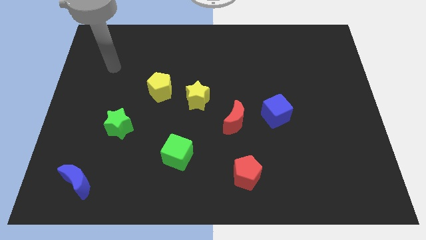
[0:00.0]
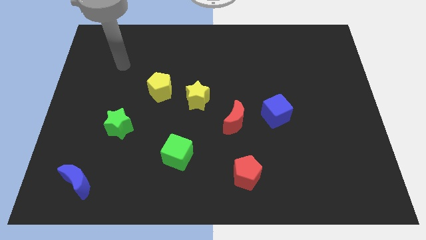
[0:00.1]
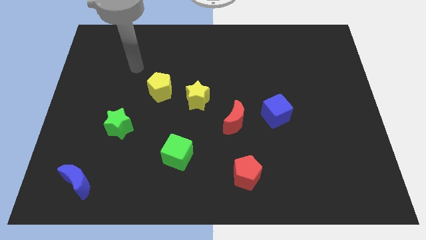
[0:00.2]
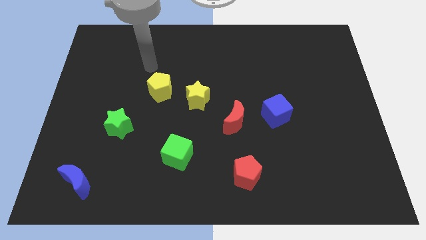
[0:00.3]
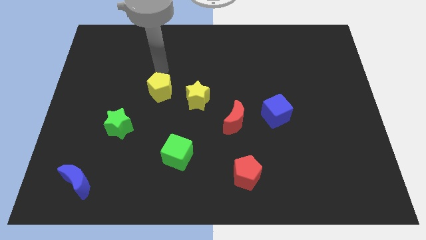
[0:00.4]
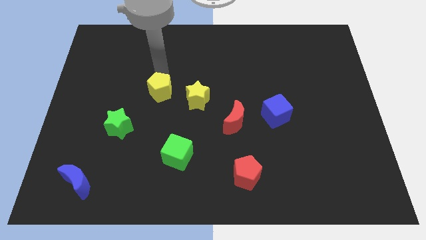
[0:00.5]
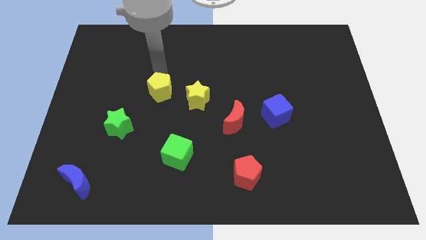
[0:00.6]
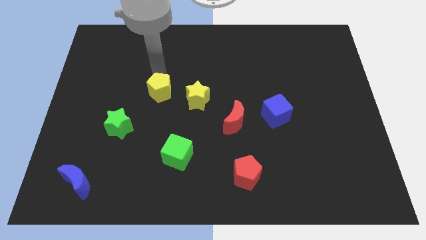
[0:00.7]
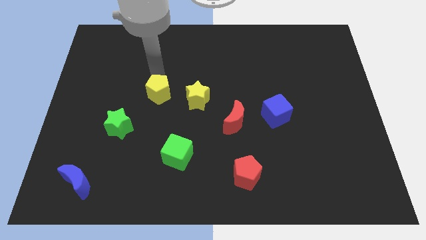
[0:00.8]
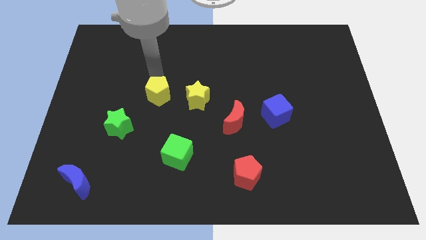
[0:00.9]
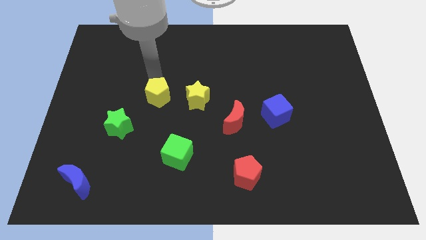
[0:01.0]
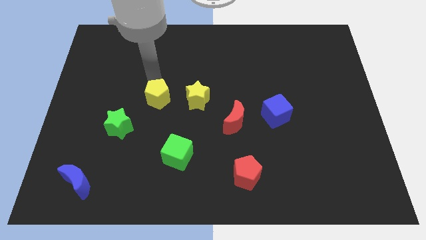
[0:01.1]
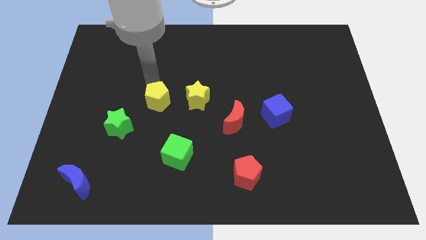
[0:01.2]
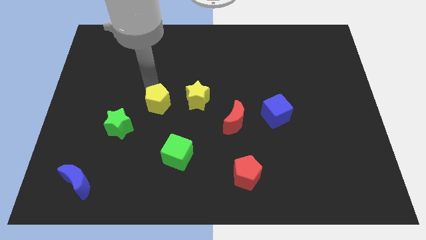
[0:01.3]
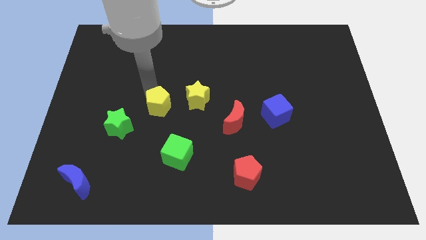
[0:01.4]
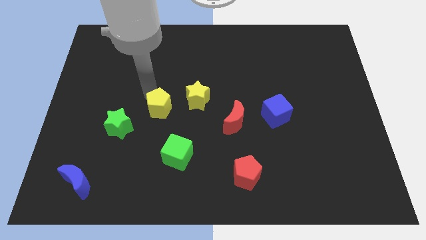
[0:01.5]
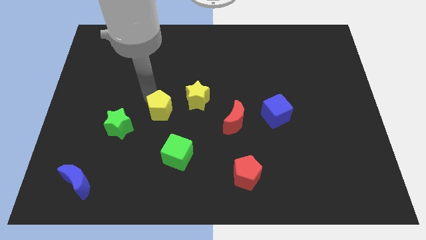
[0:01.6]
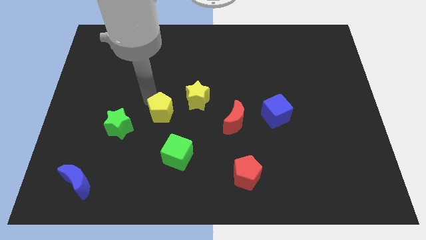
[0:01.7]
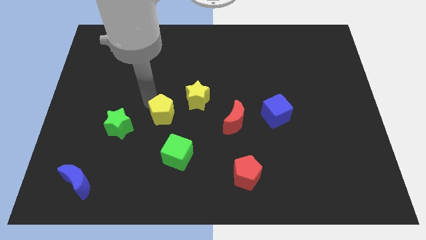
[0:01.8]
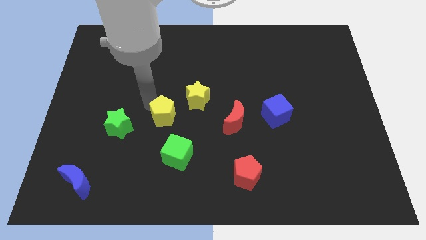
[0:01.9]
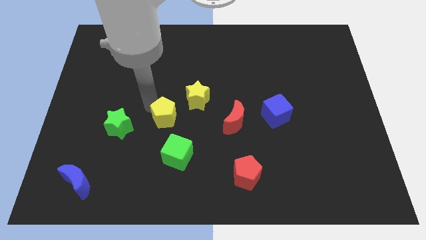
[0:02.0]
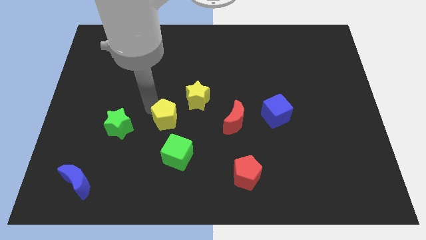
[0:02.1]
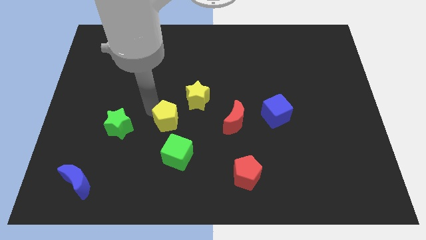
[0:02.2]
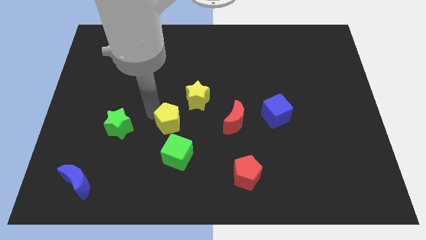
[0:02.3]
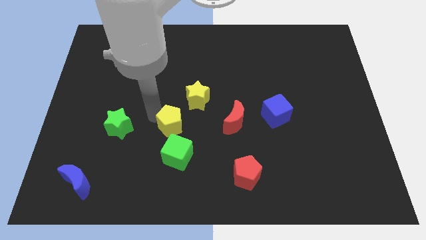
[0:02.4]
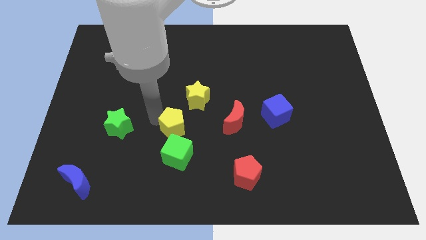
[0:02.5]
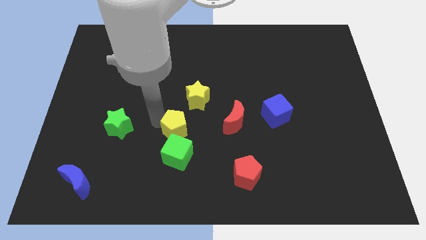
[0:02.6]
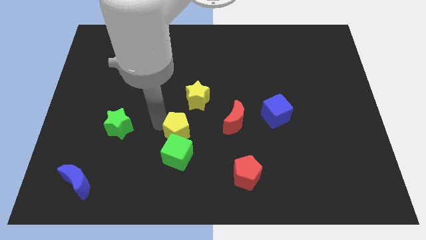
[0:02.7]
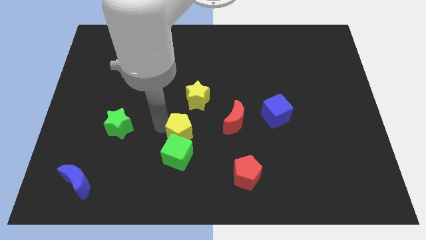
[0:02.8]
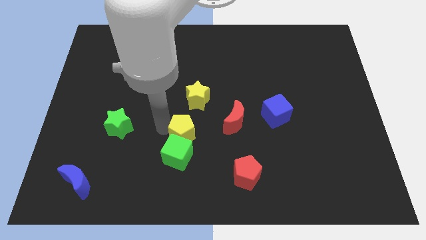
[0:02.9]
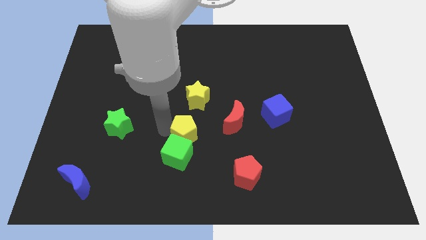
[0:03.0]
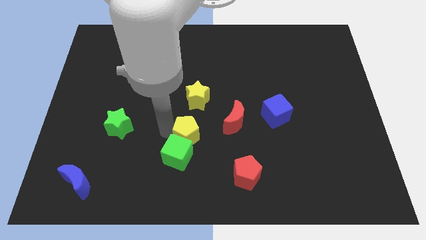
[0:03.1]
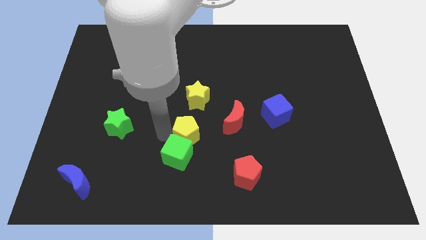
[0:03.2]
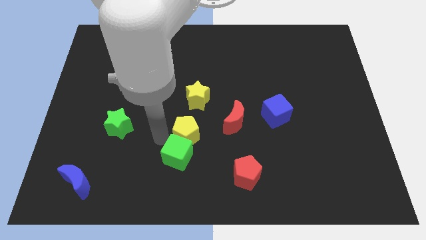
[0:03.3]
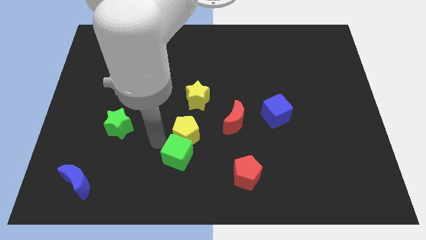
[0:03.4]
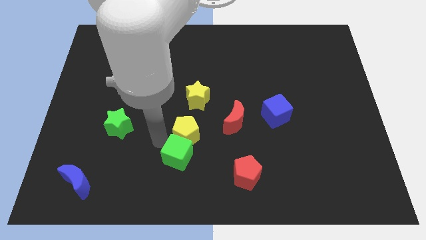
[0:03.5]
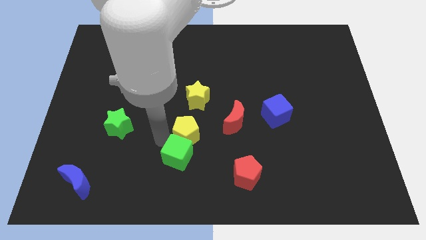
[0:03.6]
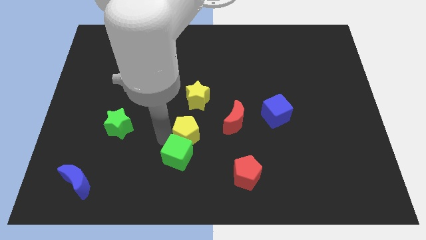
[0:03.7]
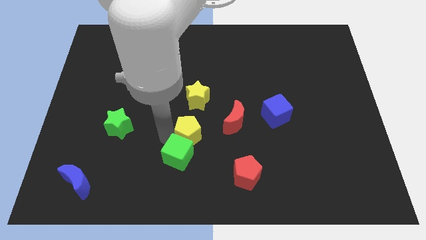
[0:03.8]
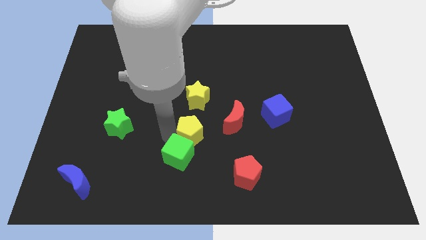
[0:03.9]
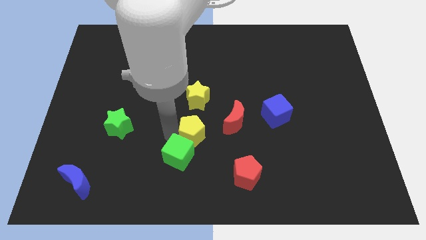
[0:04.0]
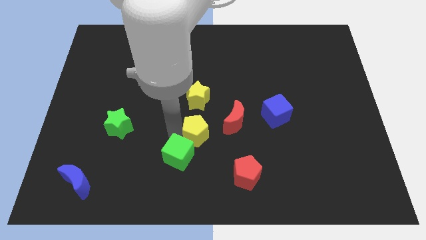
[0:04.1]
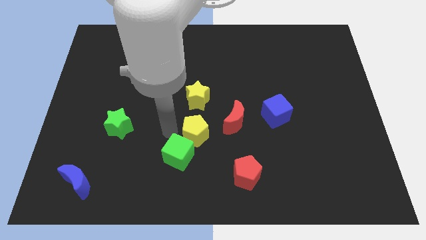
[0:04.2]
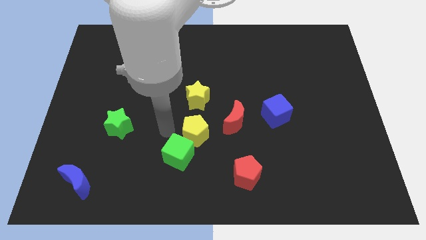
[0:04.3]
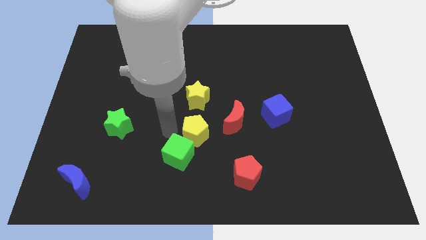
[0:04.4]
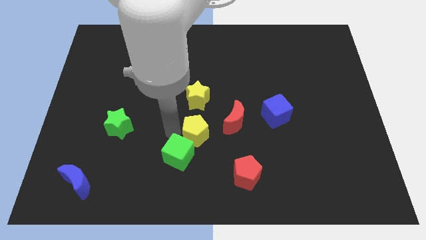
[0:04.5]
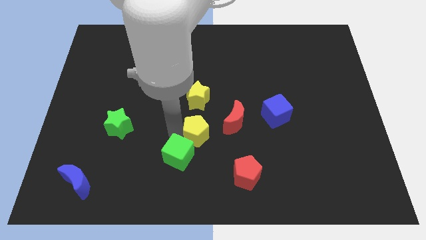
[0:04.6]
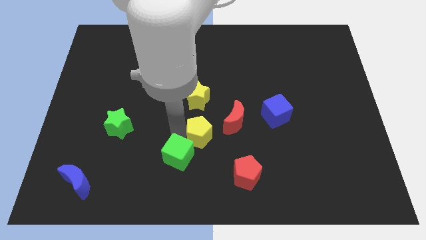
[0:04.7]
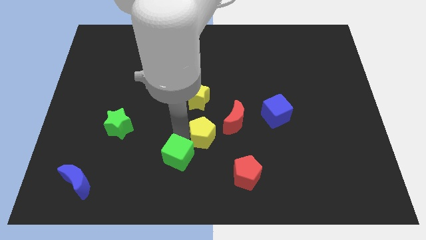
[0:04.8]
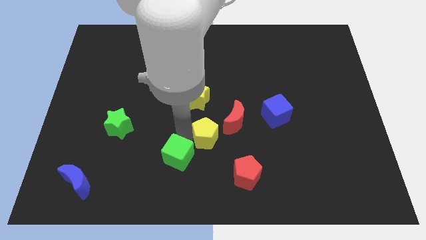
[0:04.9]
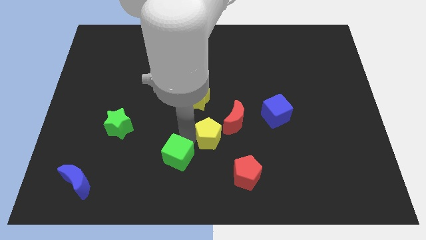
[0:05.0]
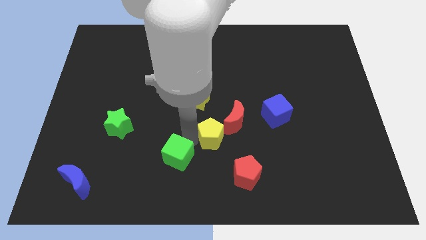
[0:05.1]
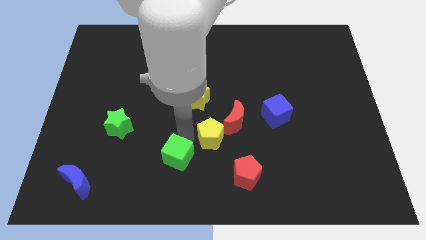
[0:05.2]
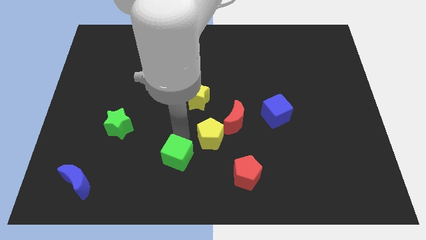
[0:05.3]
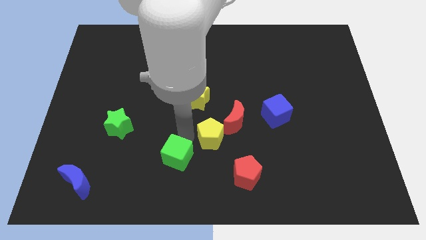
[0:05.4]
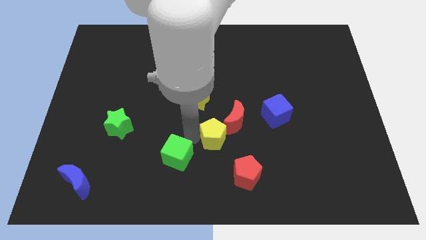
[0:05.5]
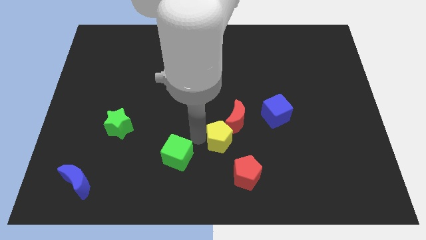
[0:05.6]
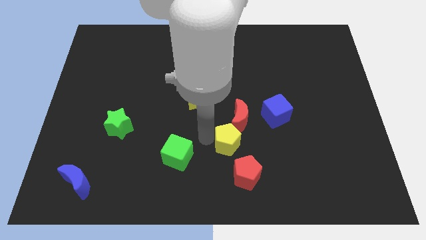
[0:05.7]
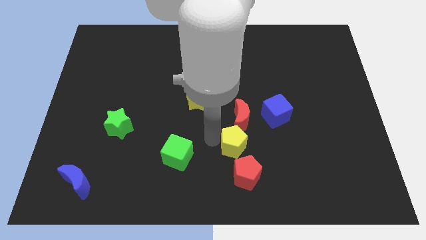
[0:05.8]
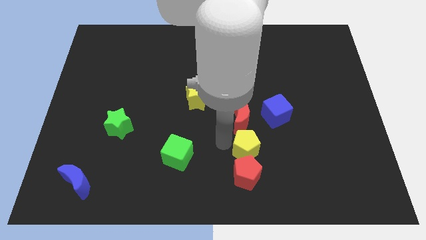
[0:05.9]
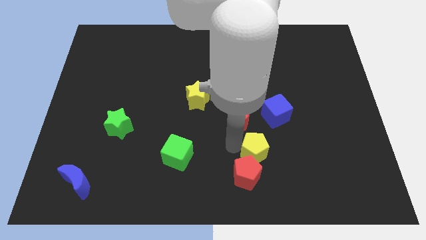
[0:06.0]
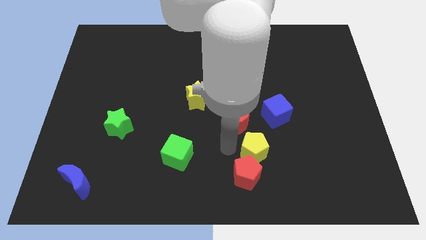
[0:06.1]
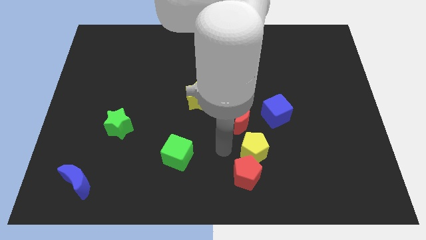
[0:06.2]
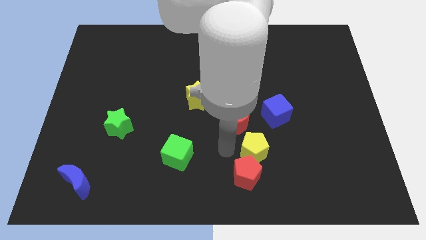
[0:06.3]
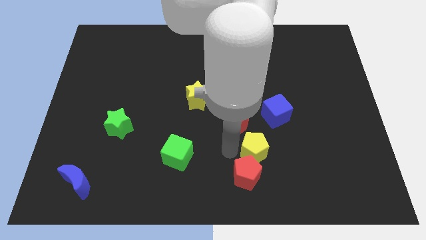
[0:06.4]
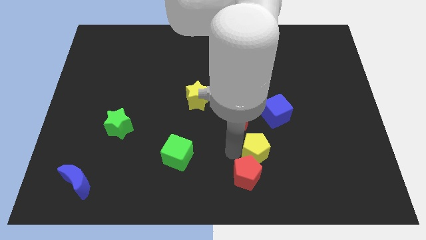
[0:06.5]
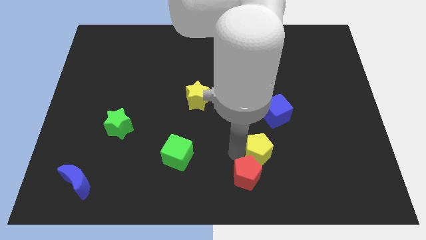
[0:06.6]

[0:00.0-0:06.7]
slide the yellow pentagon to the bottom side of the blue cube

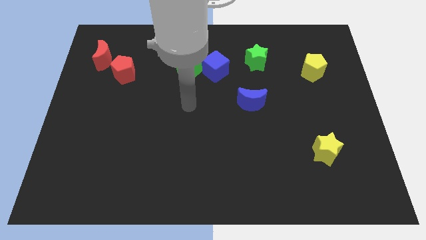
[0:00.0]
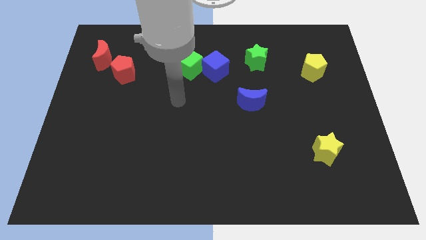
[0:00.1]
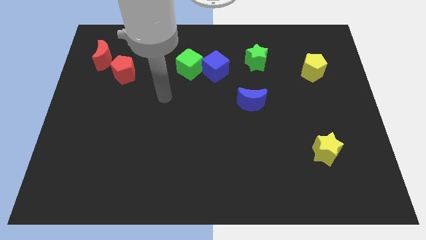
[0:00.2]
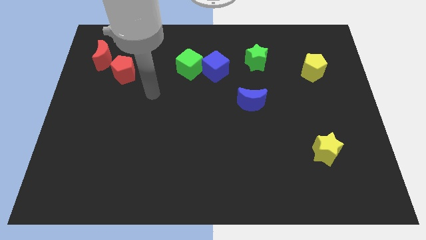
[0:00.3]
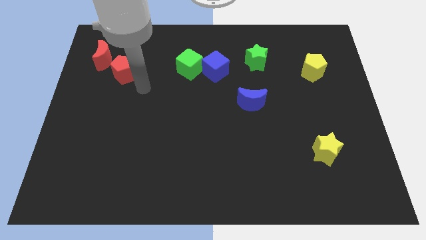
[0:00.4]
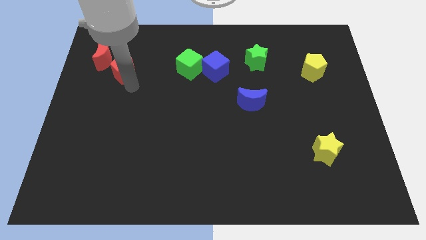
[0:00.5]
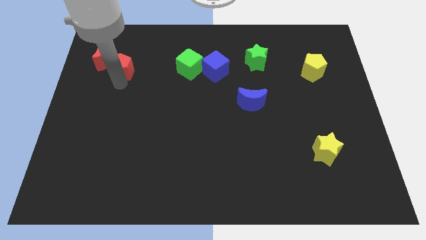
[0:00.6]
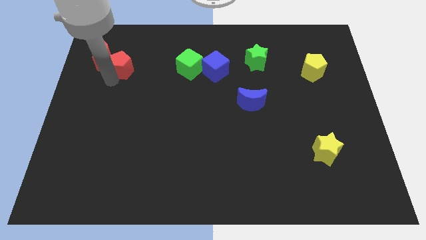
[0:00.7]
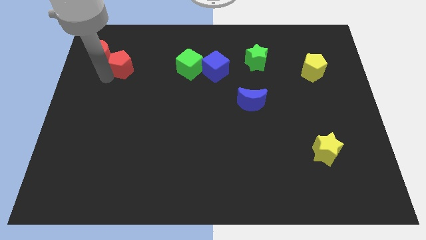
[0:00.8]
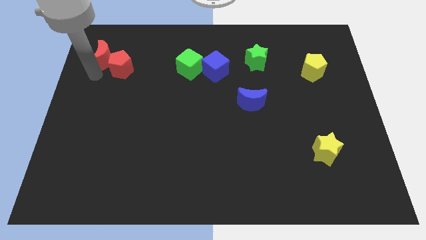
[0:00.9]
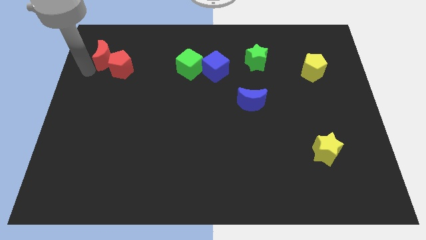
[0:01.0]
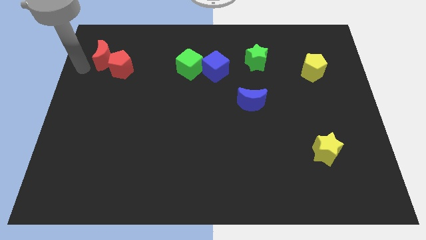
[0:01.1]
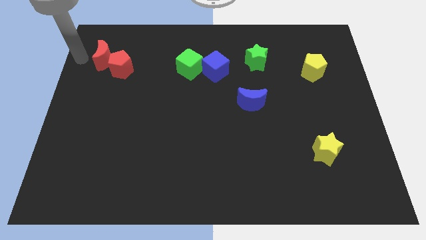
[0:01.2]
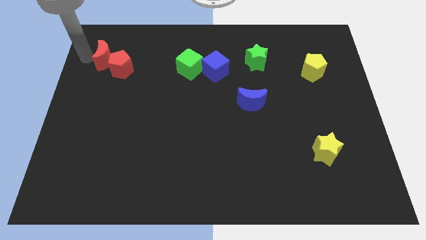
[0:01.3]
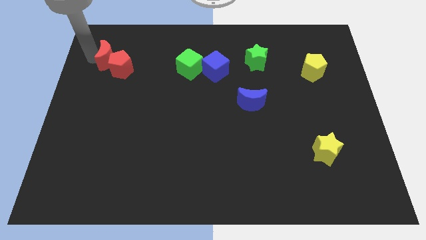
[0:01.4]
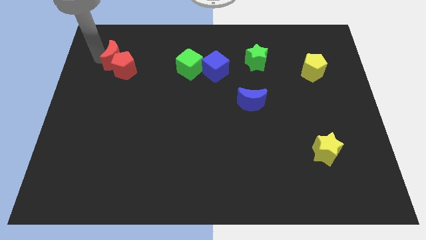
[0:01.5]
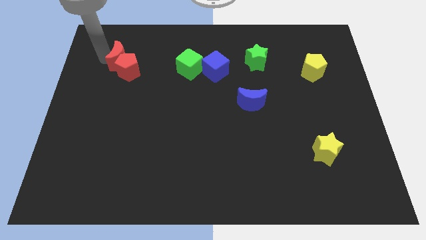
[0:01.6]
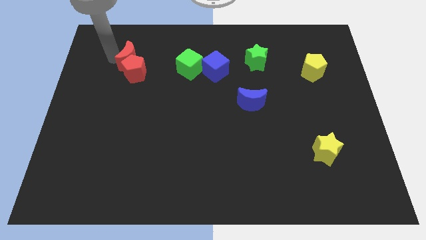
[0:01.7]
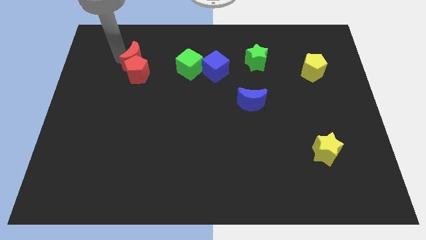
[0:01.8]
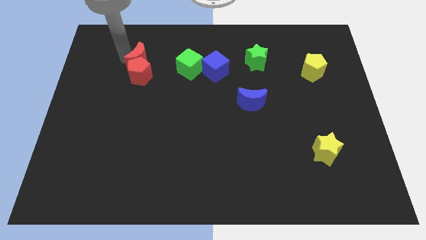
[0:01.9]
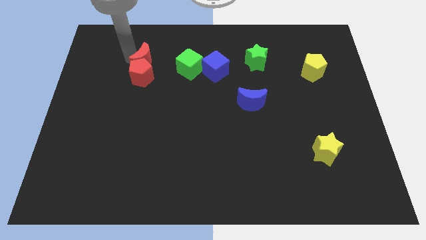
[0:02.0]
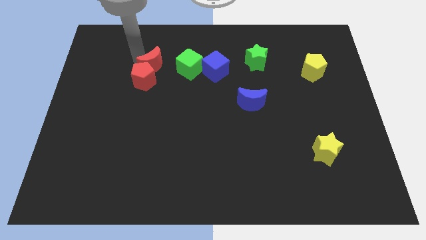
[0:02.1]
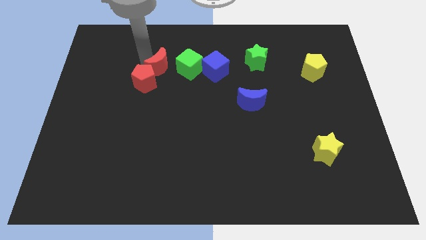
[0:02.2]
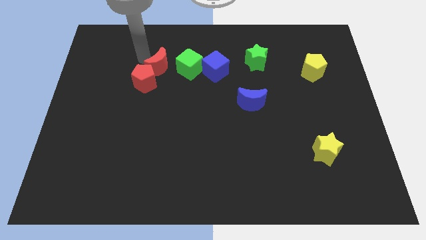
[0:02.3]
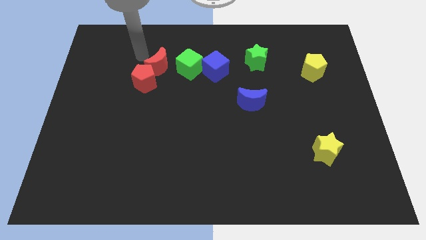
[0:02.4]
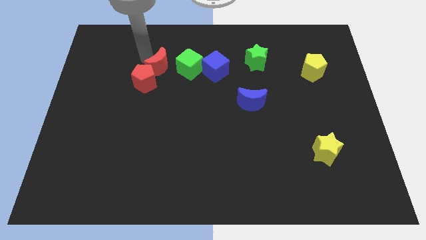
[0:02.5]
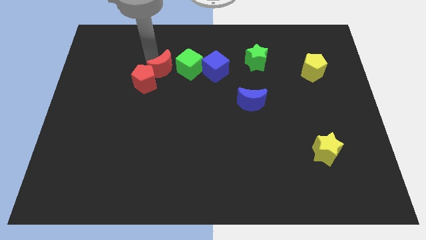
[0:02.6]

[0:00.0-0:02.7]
move the red moon just right of the red pentagon
